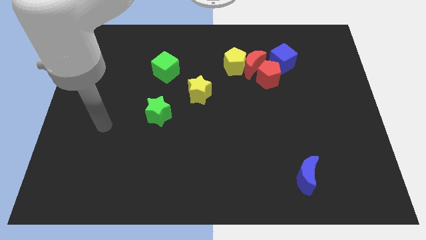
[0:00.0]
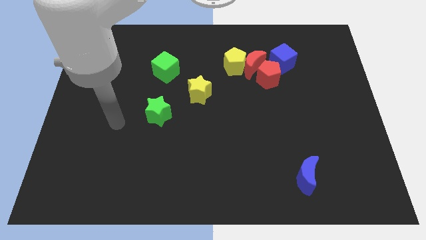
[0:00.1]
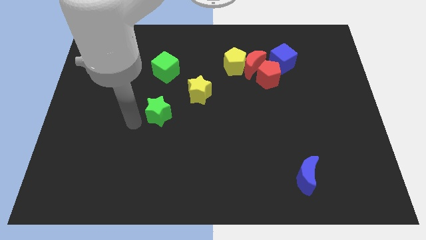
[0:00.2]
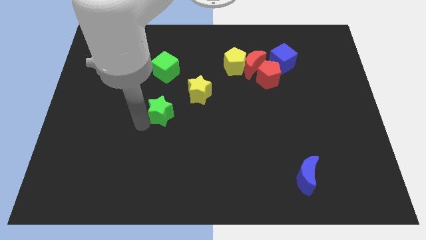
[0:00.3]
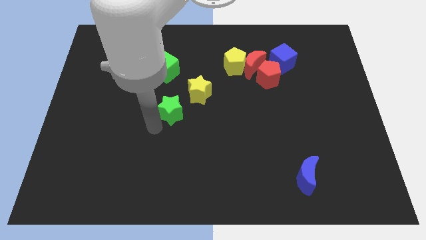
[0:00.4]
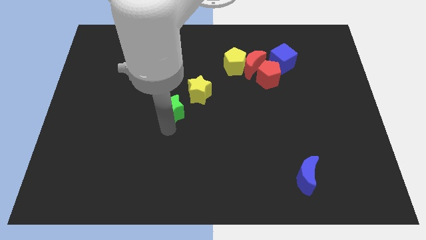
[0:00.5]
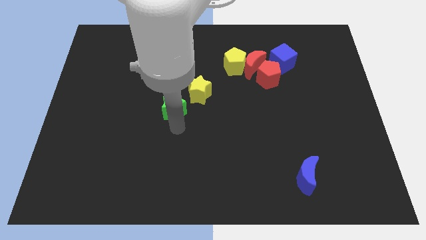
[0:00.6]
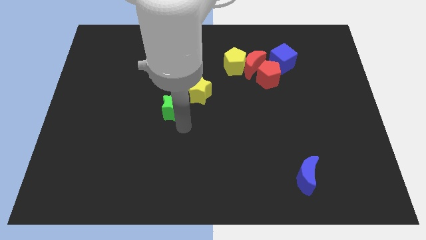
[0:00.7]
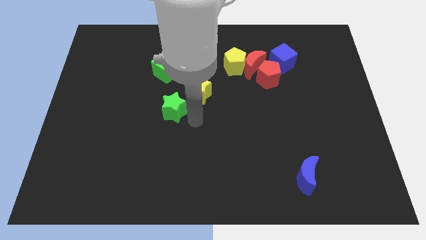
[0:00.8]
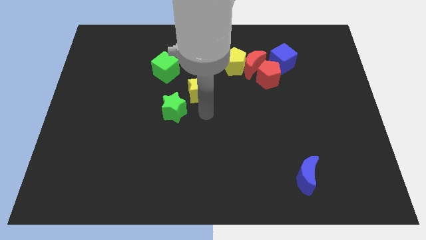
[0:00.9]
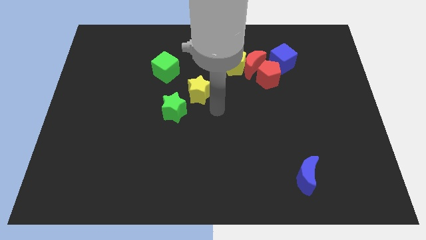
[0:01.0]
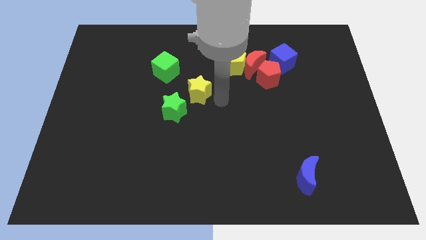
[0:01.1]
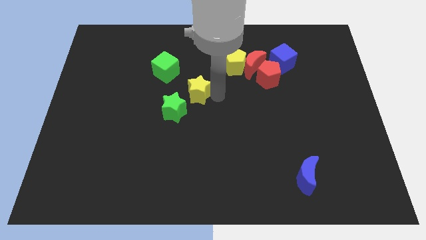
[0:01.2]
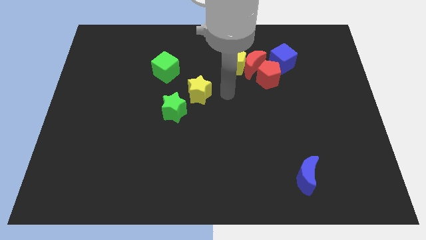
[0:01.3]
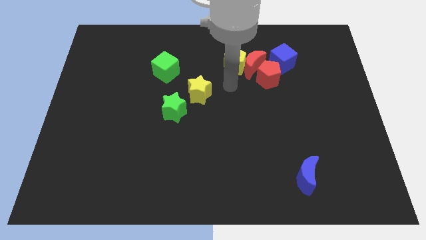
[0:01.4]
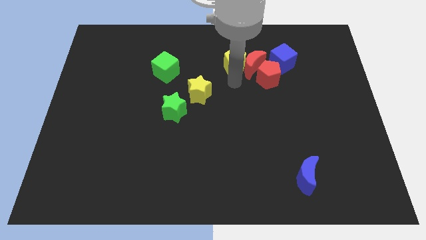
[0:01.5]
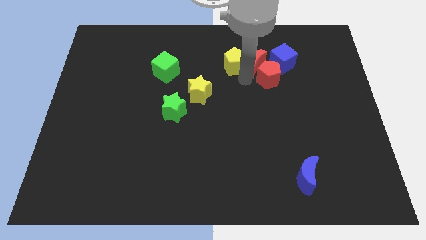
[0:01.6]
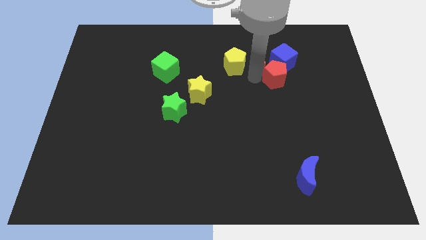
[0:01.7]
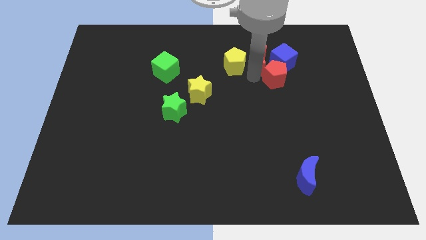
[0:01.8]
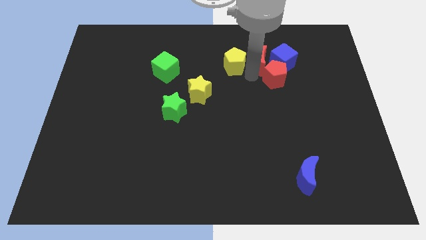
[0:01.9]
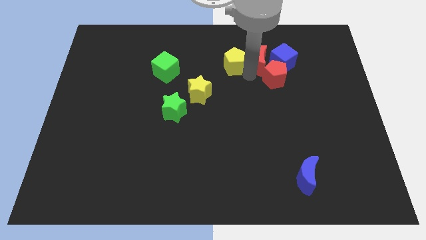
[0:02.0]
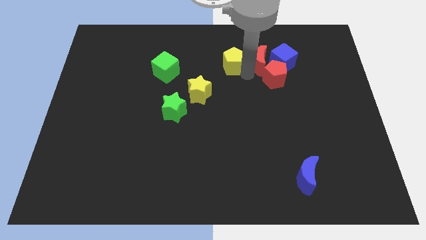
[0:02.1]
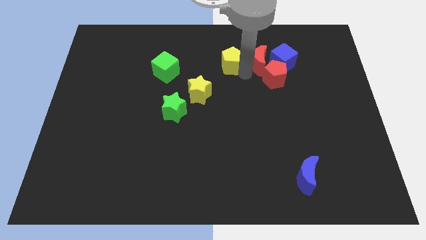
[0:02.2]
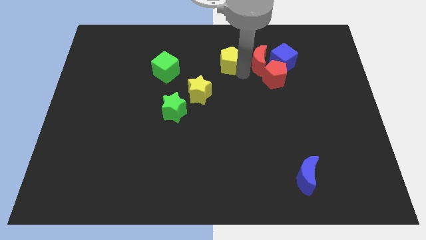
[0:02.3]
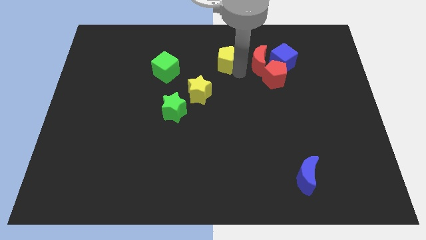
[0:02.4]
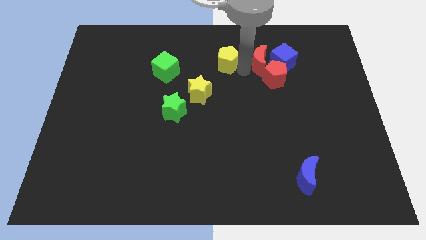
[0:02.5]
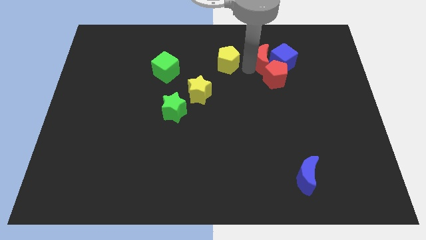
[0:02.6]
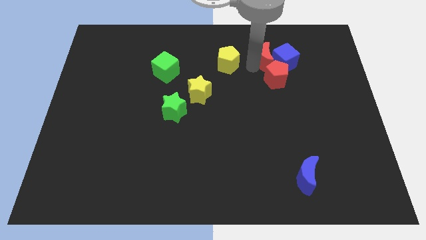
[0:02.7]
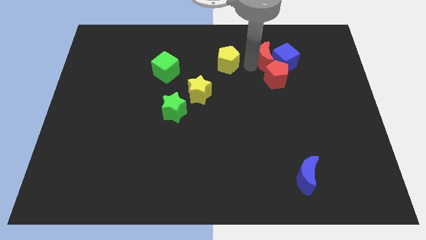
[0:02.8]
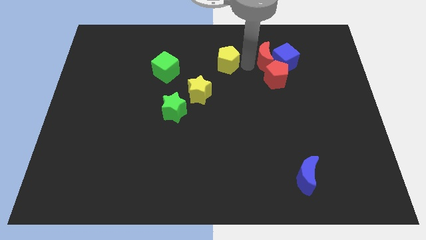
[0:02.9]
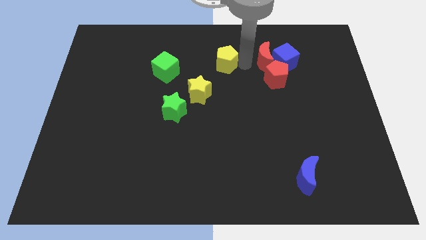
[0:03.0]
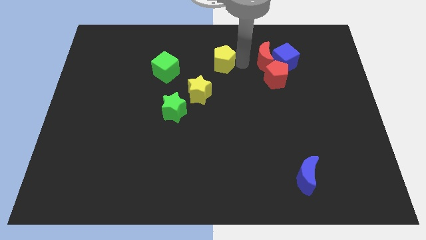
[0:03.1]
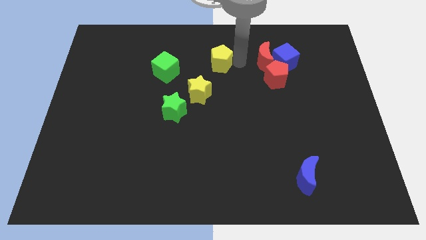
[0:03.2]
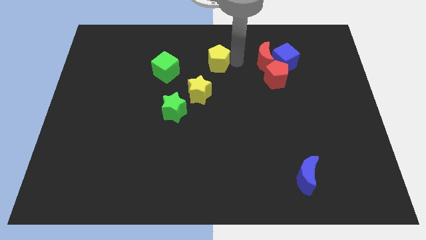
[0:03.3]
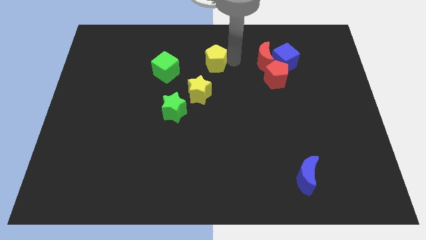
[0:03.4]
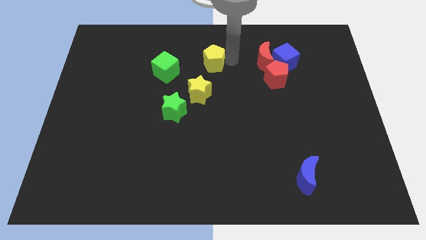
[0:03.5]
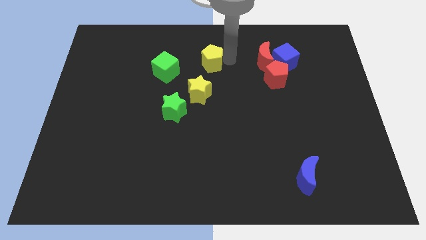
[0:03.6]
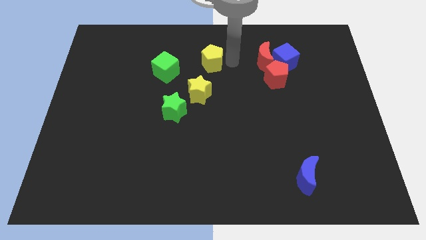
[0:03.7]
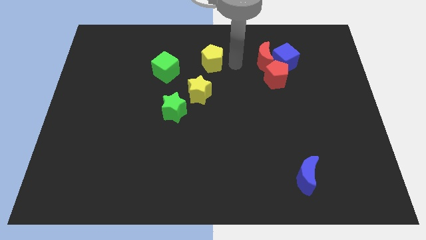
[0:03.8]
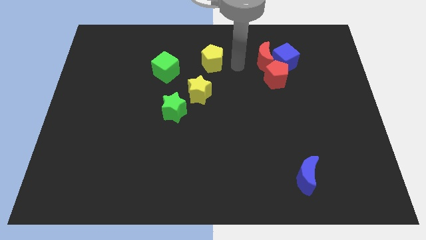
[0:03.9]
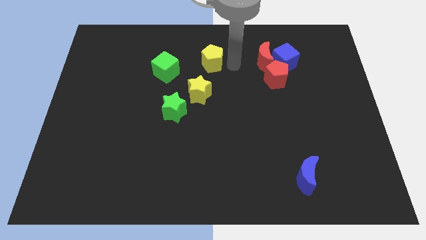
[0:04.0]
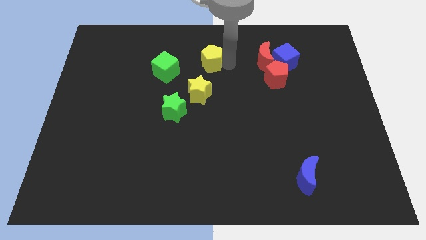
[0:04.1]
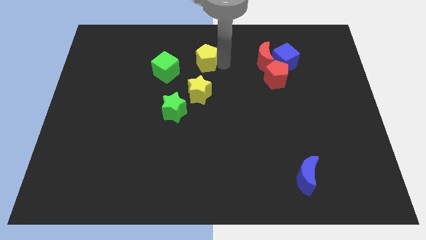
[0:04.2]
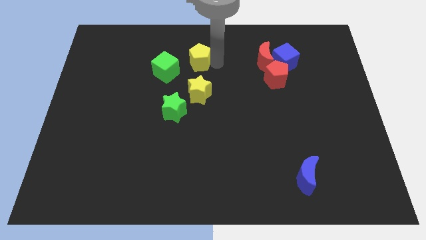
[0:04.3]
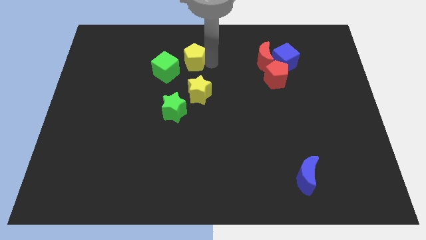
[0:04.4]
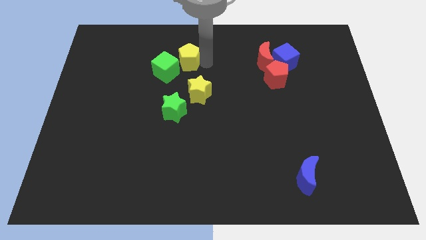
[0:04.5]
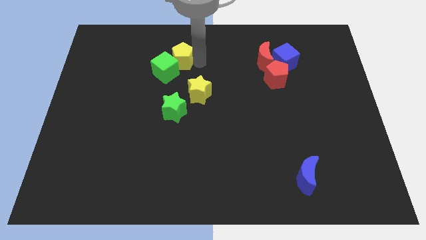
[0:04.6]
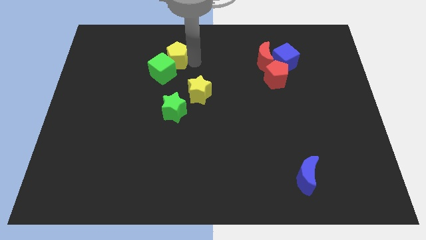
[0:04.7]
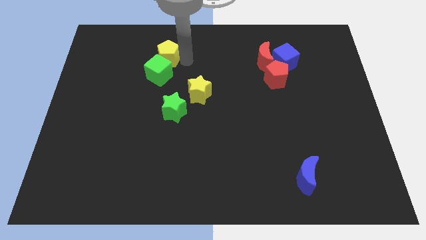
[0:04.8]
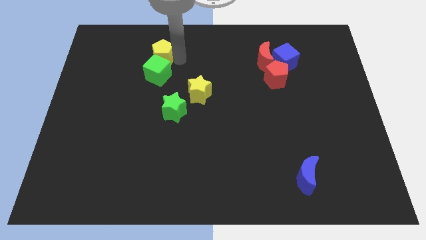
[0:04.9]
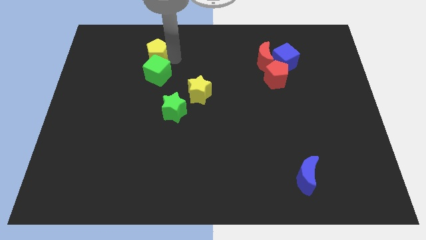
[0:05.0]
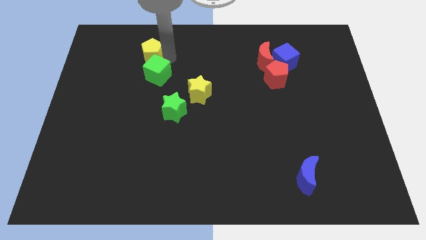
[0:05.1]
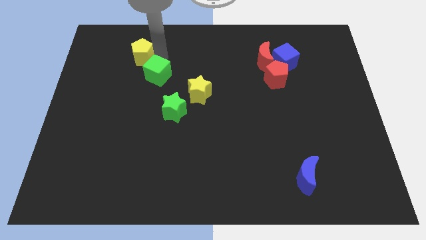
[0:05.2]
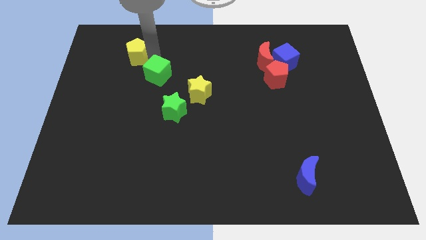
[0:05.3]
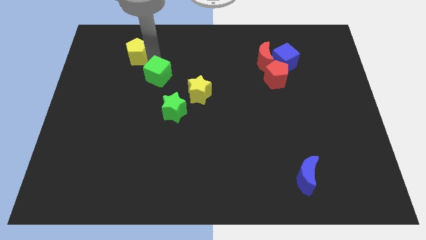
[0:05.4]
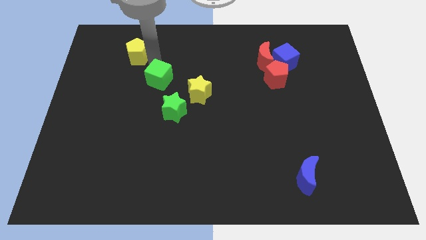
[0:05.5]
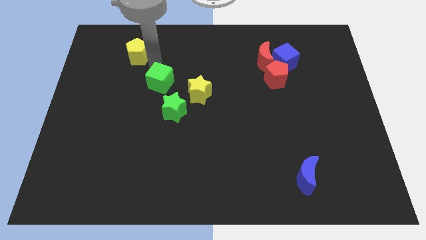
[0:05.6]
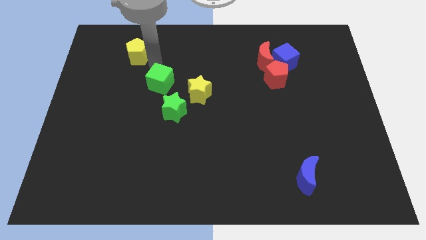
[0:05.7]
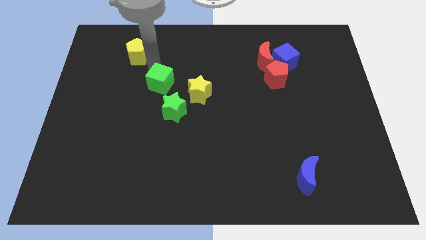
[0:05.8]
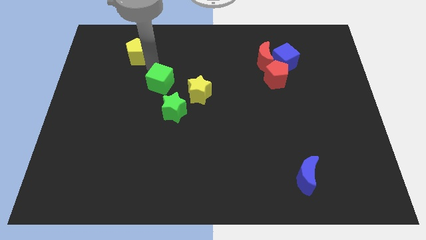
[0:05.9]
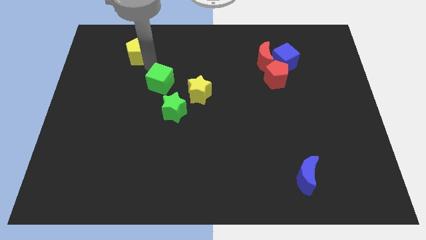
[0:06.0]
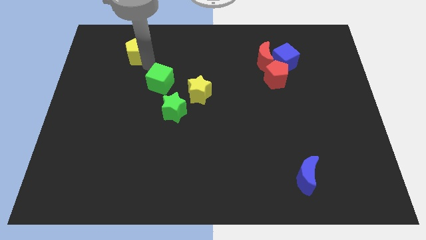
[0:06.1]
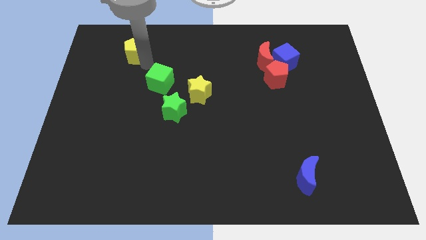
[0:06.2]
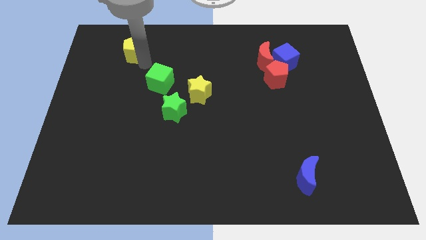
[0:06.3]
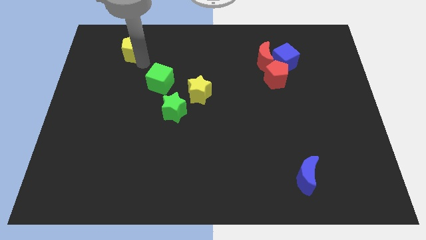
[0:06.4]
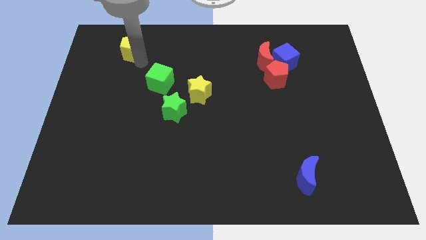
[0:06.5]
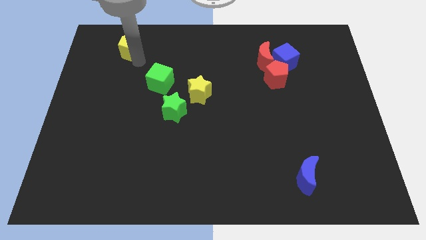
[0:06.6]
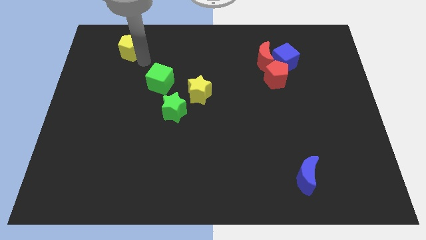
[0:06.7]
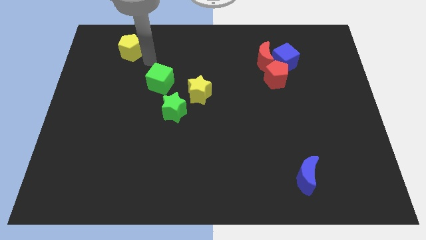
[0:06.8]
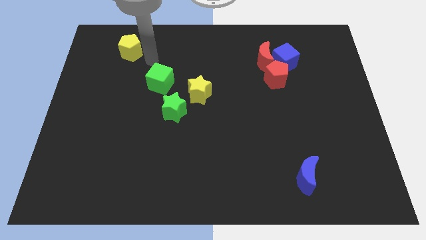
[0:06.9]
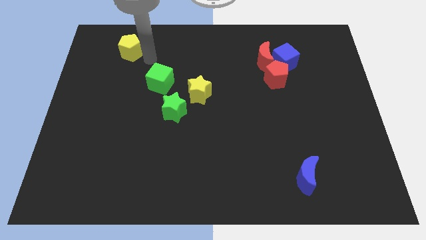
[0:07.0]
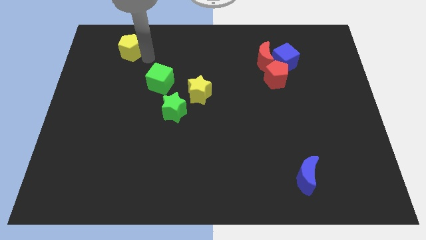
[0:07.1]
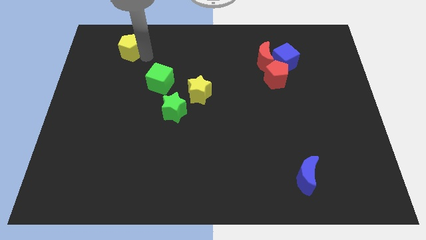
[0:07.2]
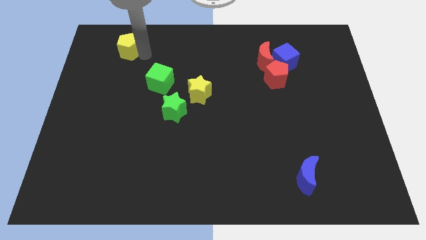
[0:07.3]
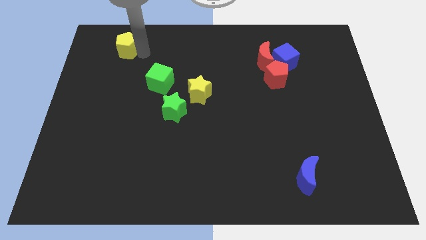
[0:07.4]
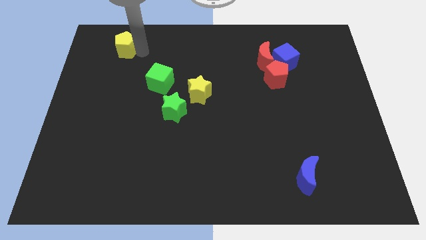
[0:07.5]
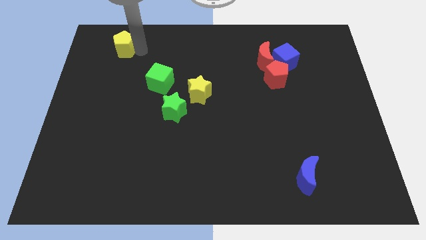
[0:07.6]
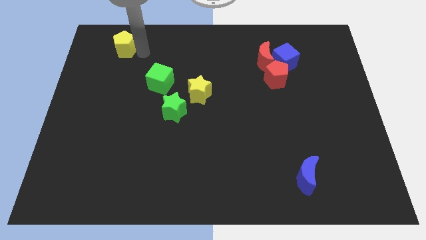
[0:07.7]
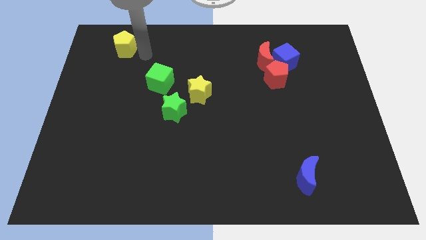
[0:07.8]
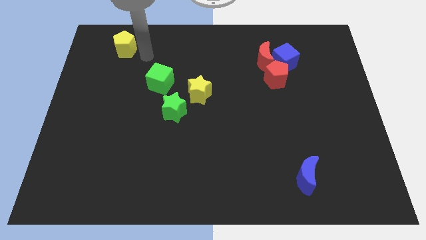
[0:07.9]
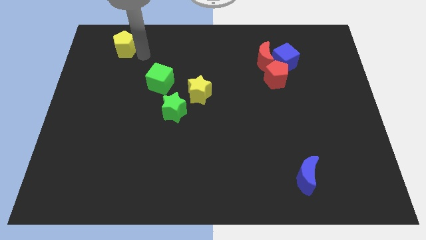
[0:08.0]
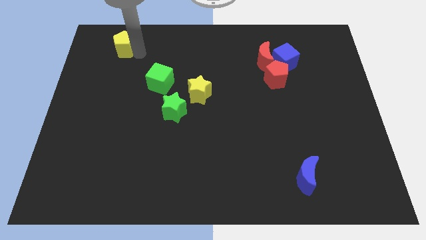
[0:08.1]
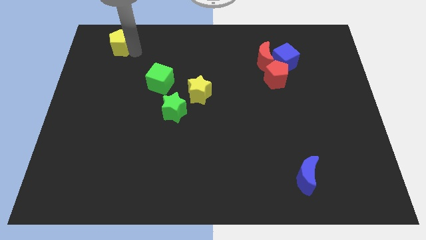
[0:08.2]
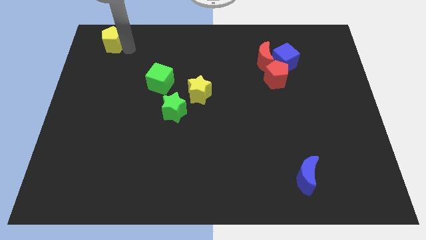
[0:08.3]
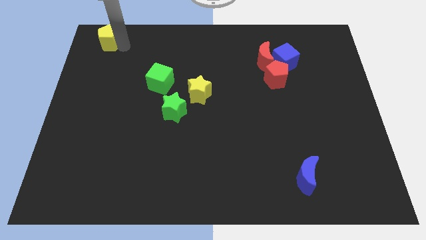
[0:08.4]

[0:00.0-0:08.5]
push the yellow pentagon to the upper left corner
